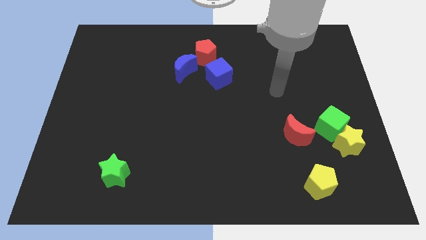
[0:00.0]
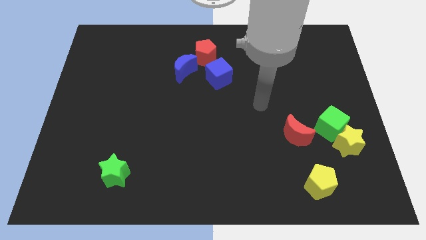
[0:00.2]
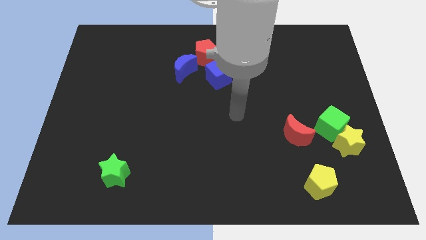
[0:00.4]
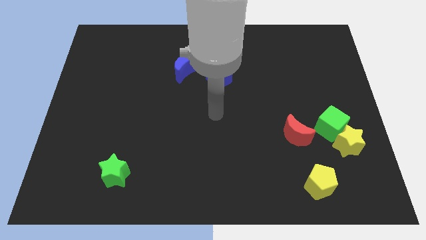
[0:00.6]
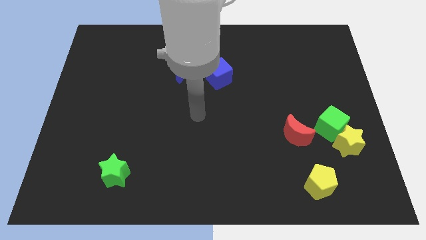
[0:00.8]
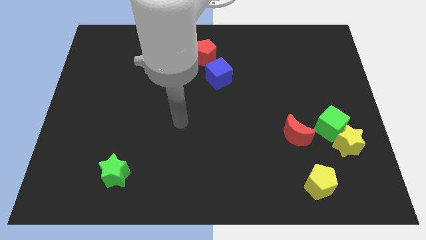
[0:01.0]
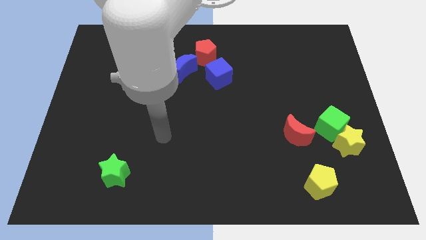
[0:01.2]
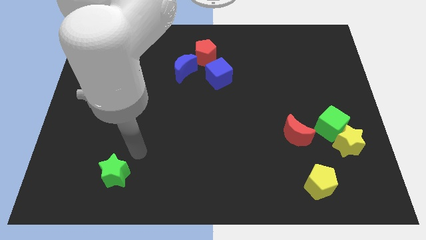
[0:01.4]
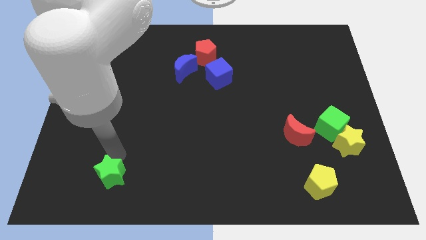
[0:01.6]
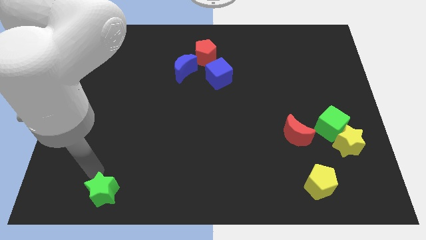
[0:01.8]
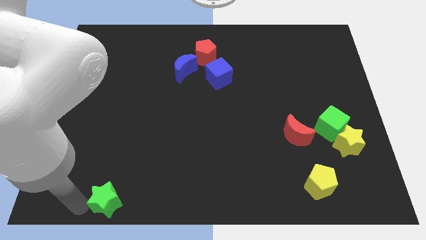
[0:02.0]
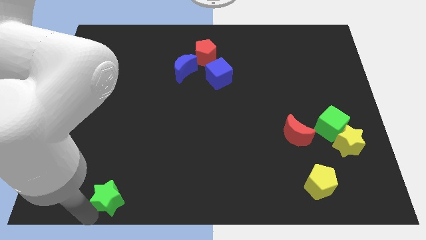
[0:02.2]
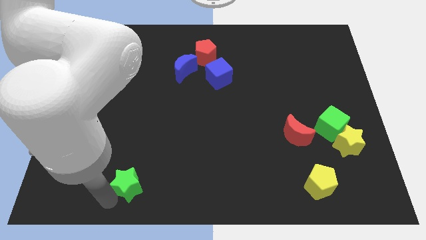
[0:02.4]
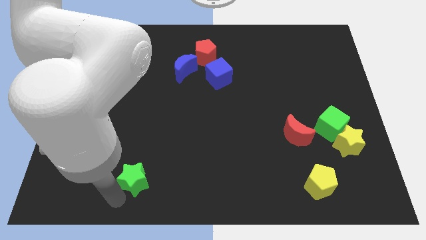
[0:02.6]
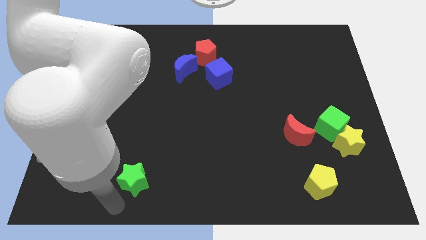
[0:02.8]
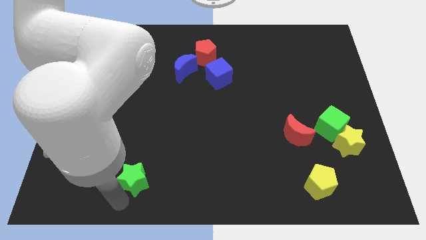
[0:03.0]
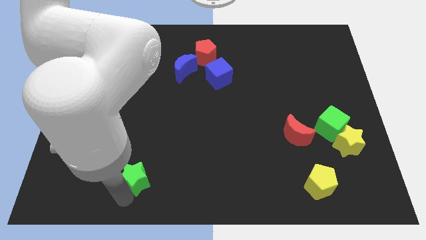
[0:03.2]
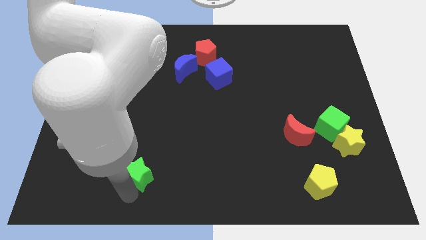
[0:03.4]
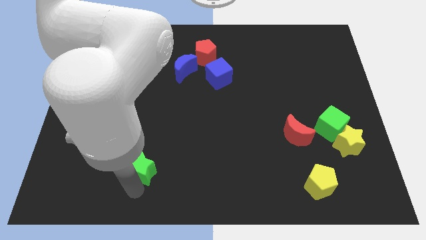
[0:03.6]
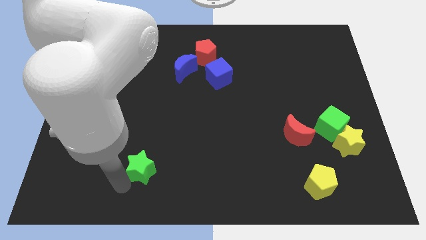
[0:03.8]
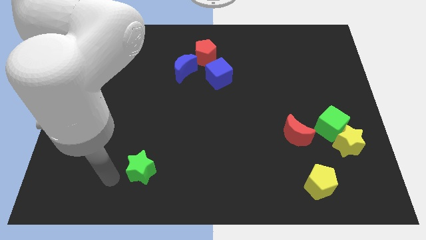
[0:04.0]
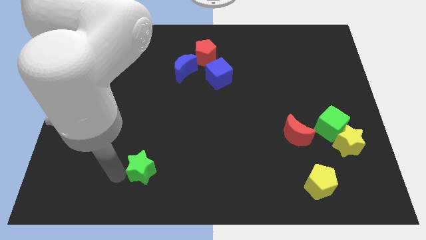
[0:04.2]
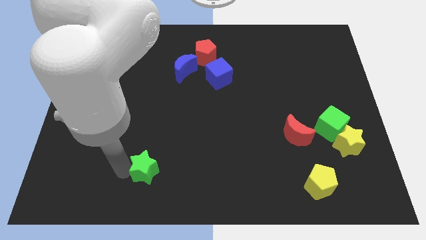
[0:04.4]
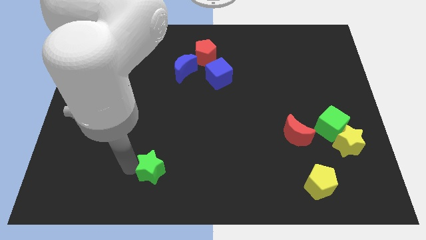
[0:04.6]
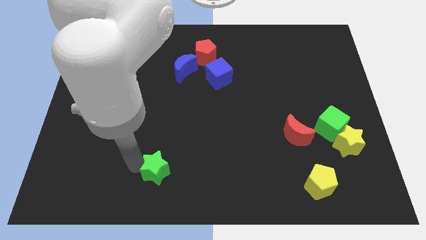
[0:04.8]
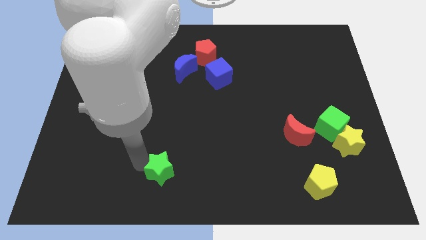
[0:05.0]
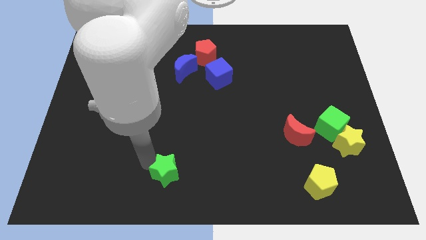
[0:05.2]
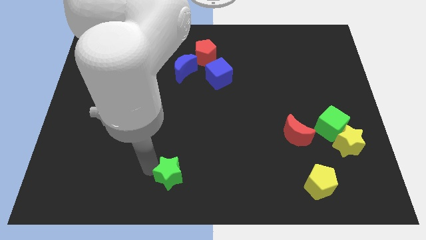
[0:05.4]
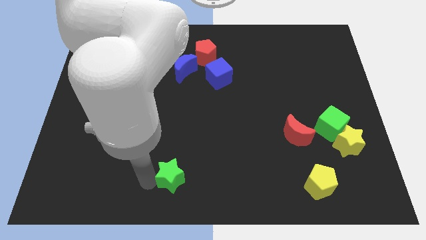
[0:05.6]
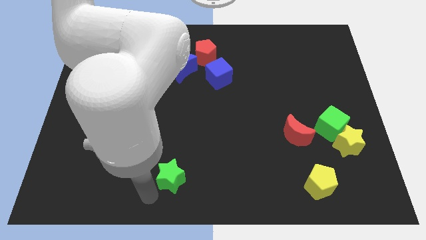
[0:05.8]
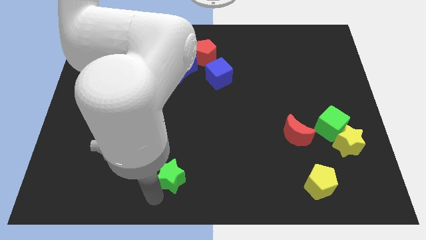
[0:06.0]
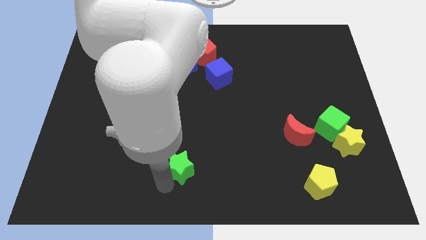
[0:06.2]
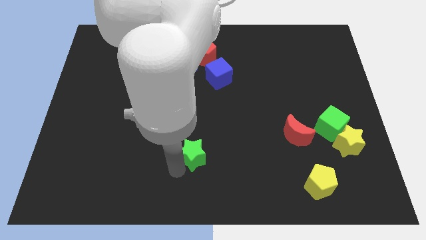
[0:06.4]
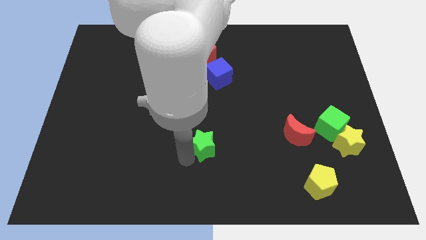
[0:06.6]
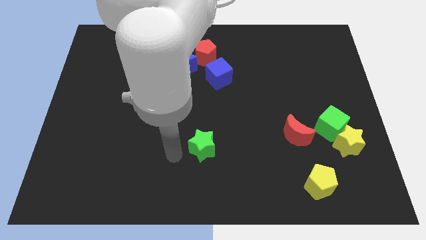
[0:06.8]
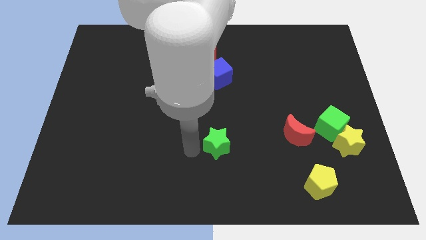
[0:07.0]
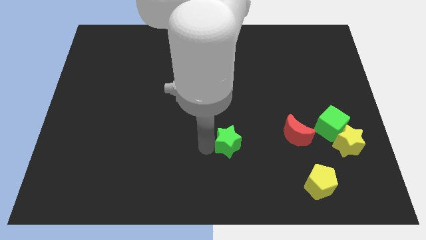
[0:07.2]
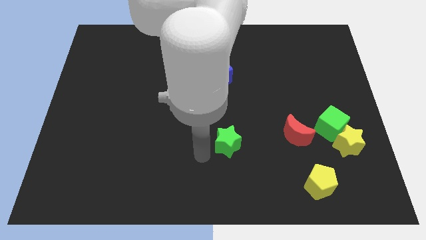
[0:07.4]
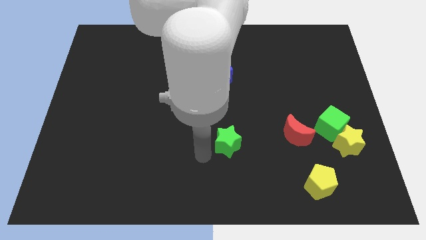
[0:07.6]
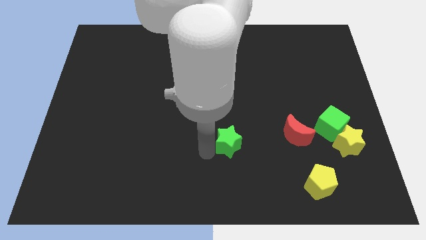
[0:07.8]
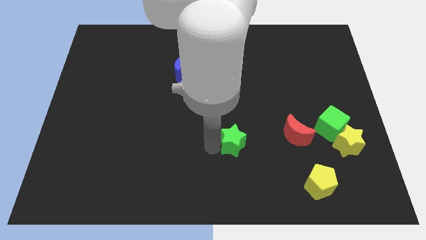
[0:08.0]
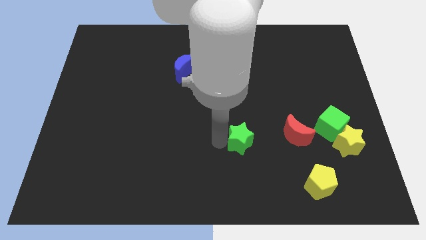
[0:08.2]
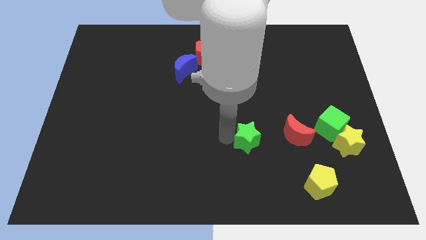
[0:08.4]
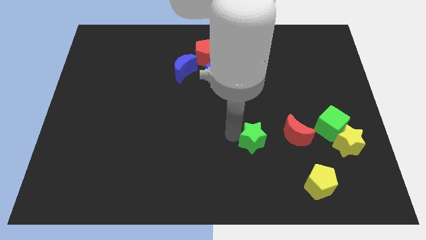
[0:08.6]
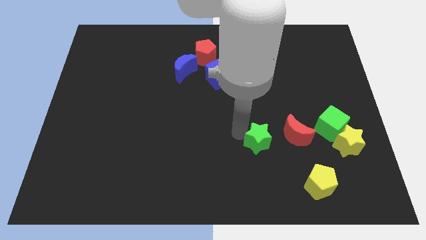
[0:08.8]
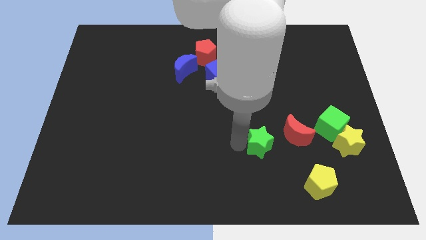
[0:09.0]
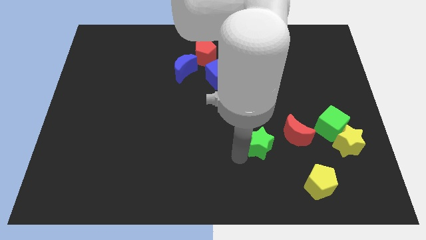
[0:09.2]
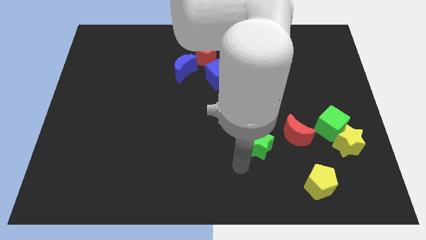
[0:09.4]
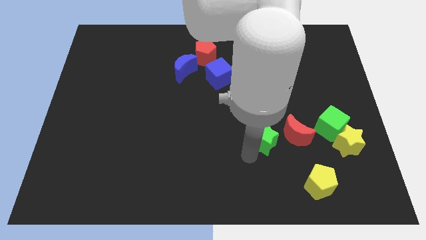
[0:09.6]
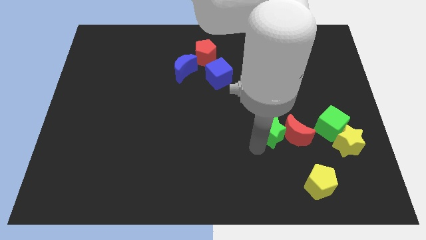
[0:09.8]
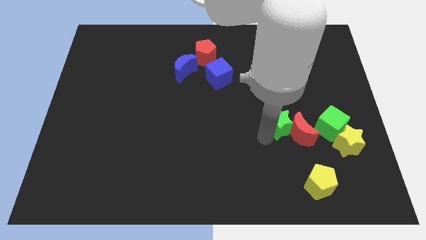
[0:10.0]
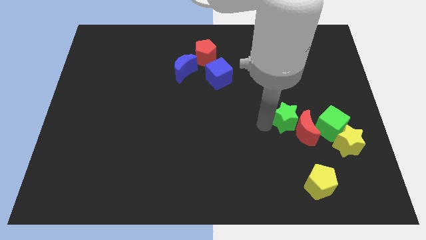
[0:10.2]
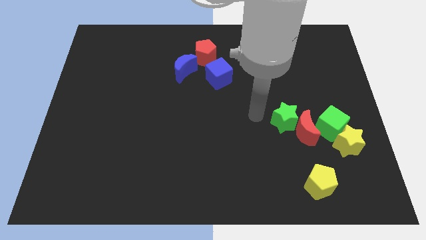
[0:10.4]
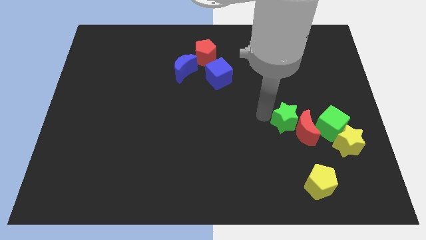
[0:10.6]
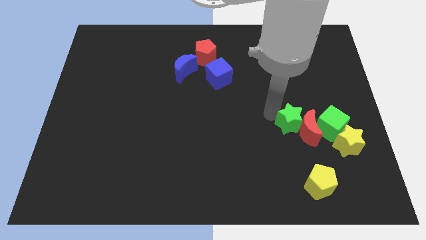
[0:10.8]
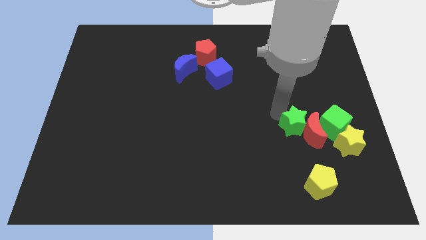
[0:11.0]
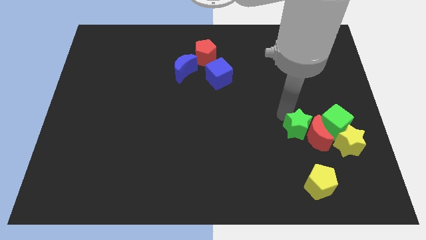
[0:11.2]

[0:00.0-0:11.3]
slide the green star to the top left of the yellow star

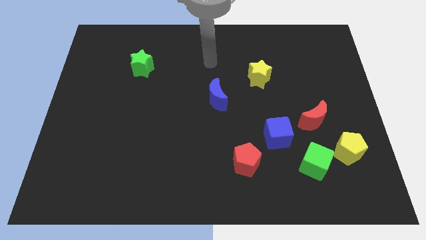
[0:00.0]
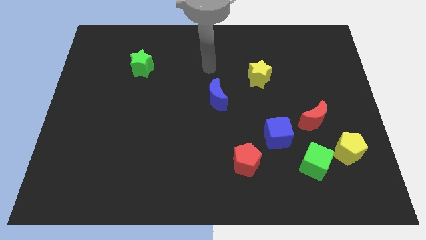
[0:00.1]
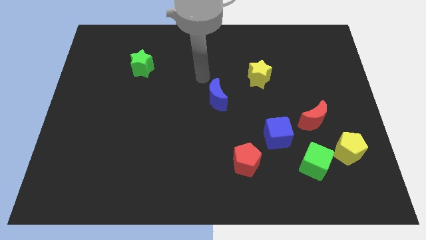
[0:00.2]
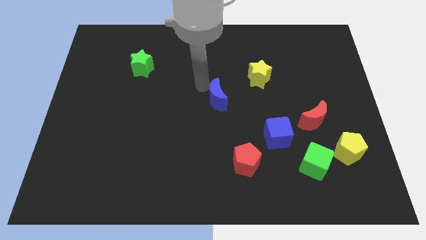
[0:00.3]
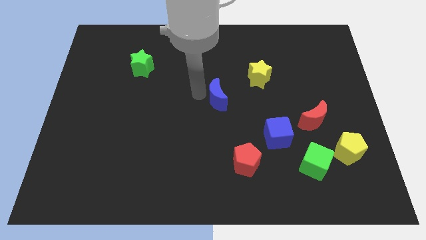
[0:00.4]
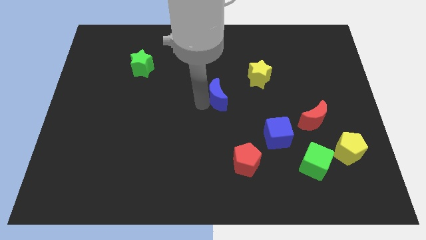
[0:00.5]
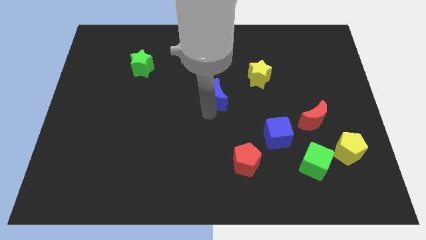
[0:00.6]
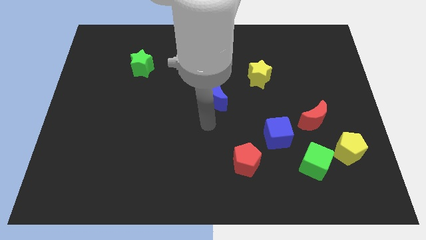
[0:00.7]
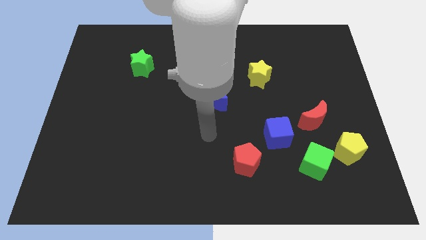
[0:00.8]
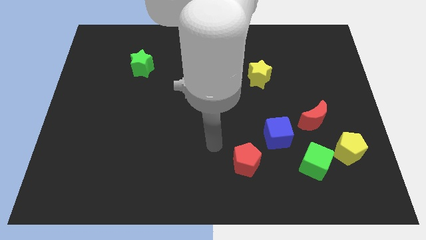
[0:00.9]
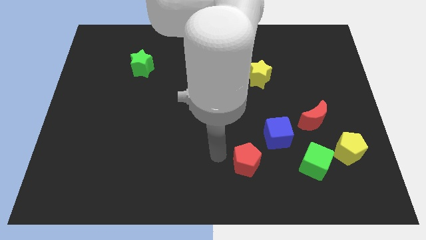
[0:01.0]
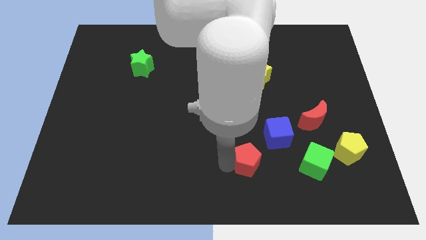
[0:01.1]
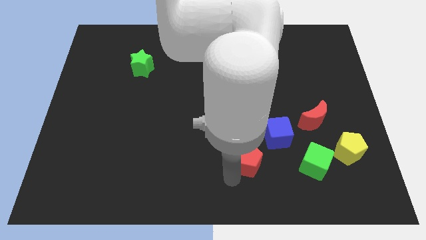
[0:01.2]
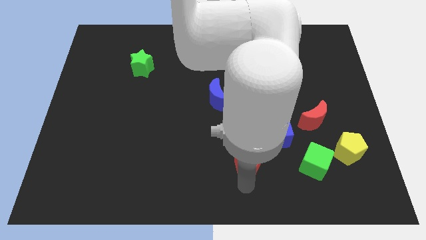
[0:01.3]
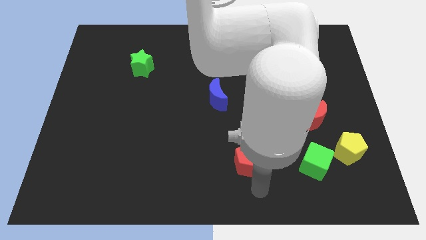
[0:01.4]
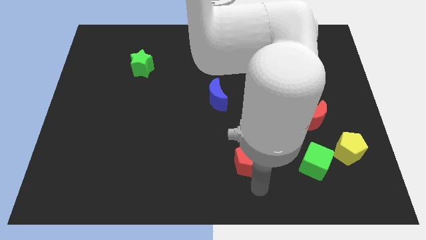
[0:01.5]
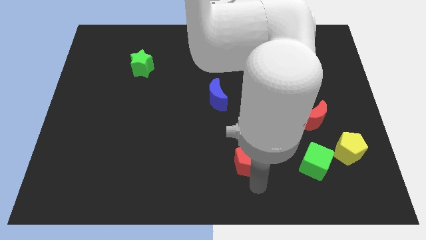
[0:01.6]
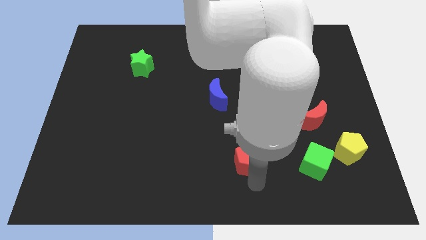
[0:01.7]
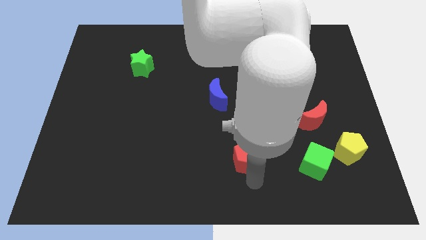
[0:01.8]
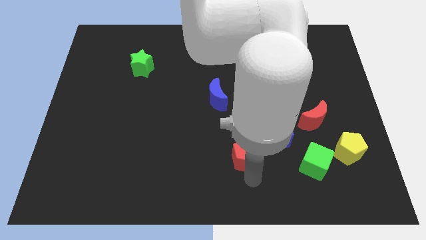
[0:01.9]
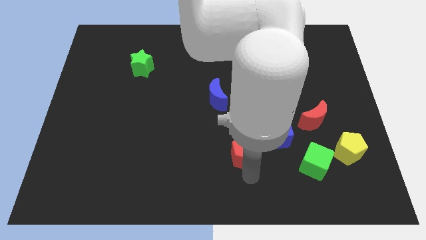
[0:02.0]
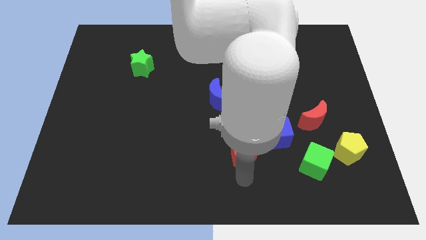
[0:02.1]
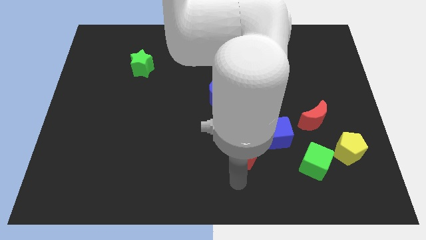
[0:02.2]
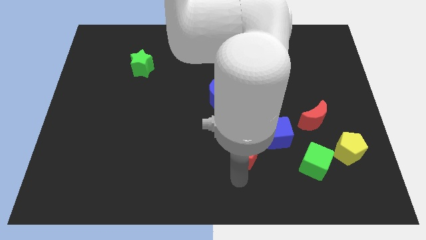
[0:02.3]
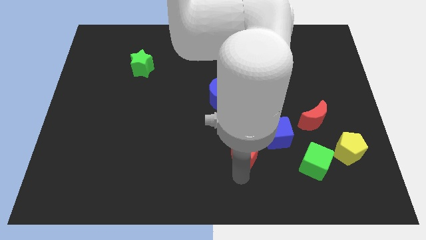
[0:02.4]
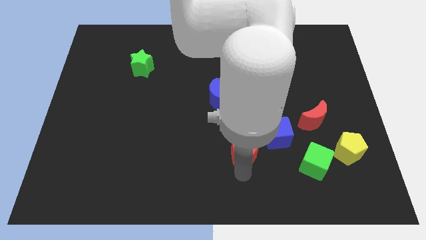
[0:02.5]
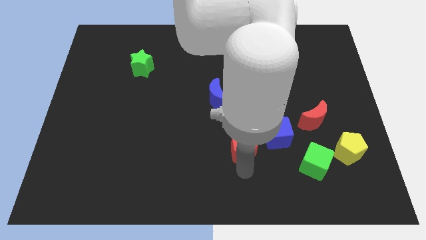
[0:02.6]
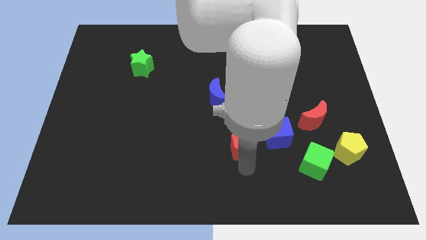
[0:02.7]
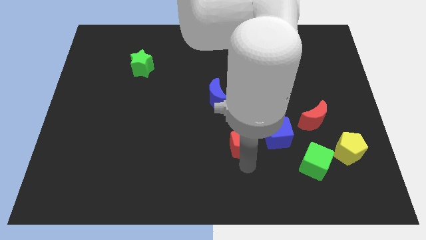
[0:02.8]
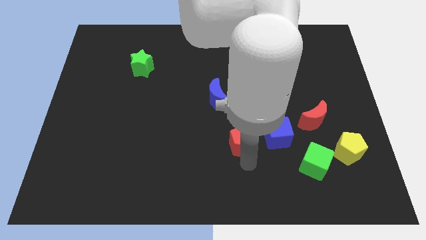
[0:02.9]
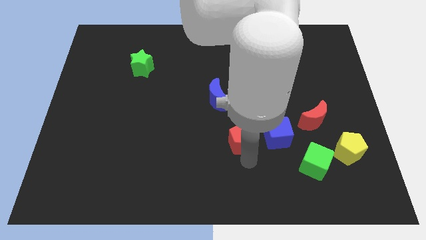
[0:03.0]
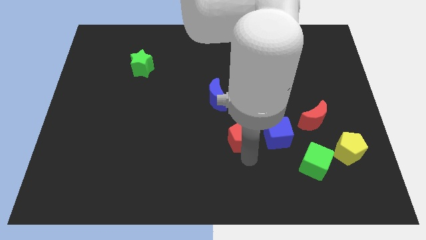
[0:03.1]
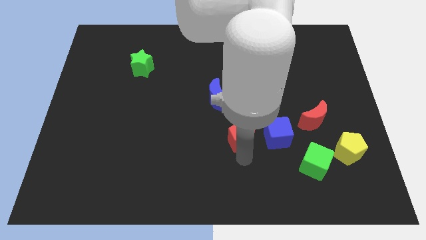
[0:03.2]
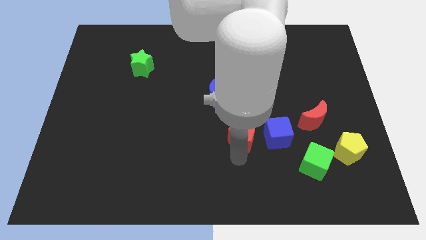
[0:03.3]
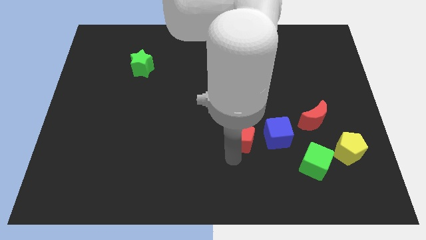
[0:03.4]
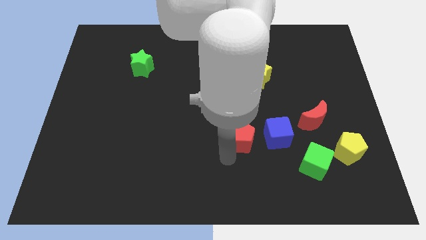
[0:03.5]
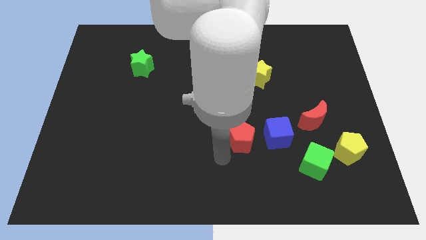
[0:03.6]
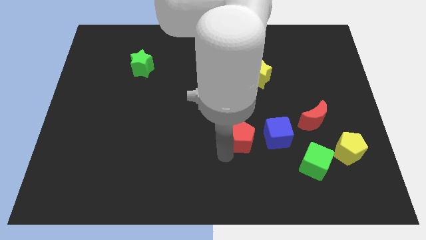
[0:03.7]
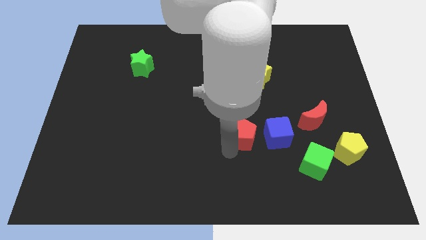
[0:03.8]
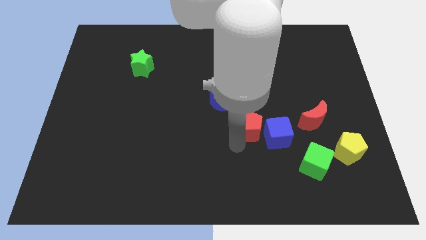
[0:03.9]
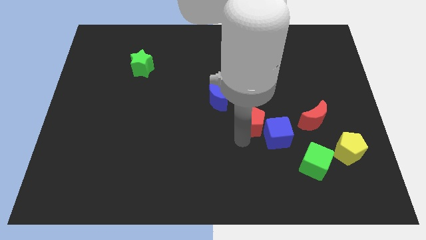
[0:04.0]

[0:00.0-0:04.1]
move the red pentagon below the yellow star
